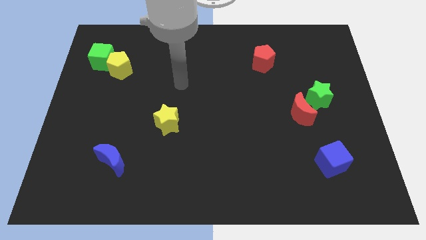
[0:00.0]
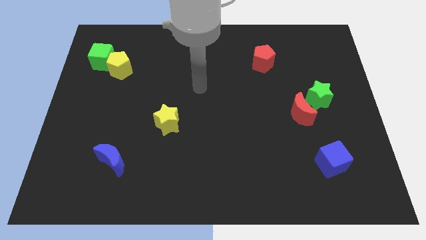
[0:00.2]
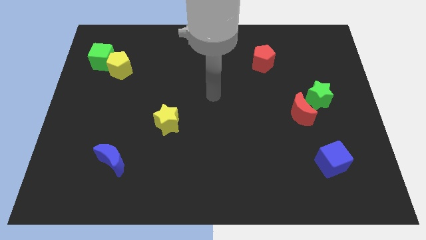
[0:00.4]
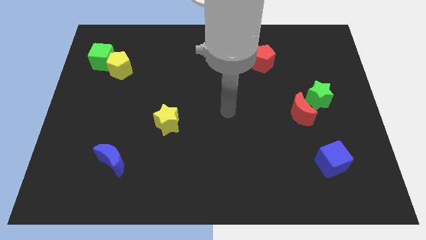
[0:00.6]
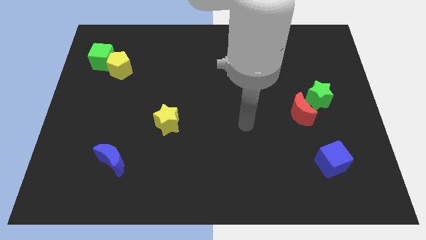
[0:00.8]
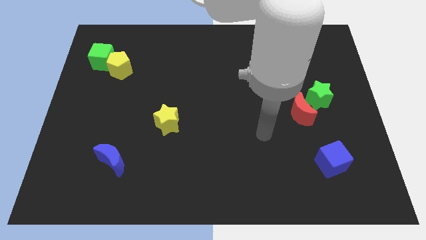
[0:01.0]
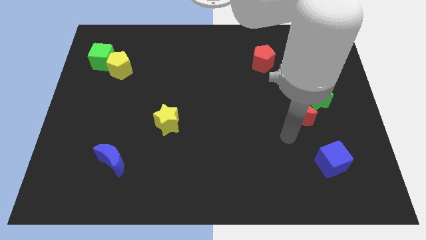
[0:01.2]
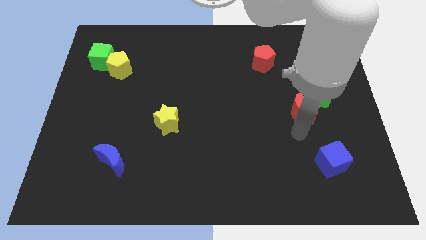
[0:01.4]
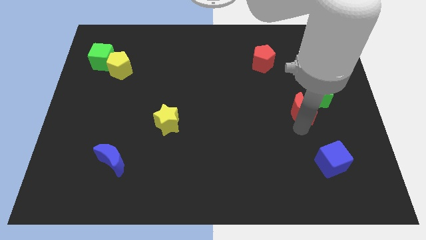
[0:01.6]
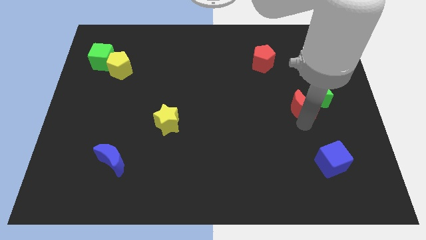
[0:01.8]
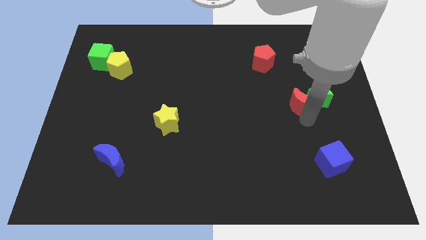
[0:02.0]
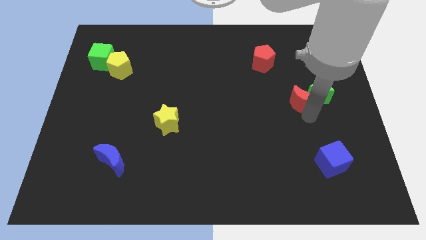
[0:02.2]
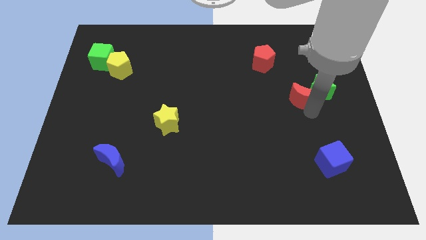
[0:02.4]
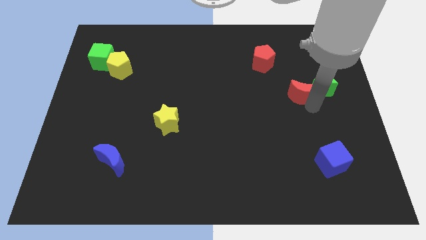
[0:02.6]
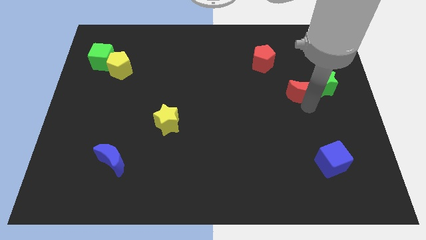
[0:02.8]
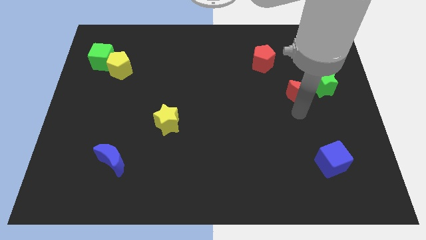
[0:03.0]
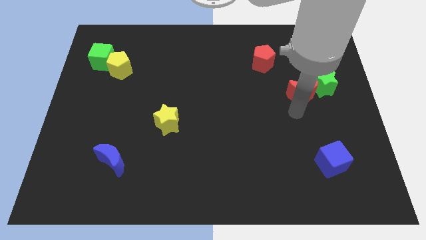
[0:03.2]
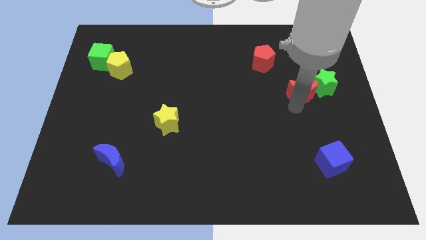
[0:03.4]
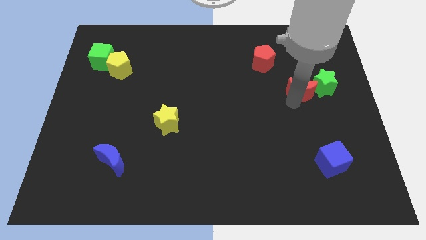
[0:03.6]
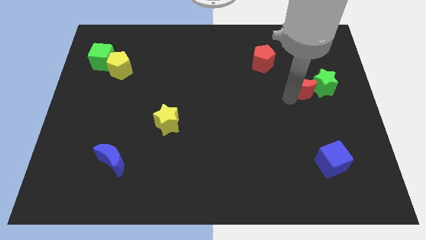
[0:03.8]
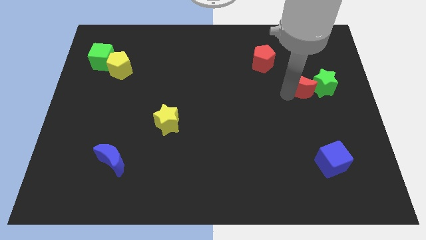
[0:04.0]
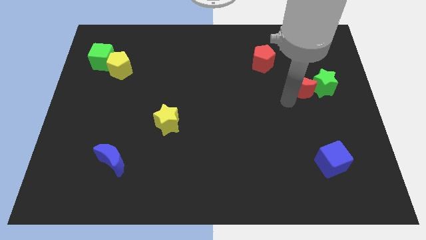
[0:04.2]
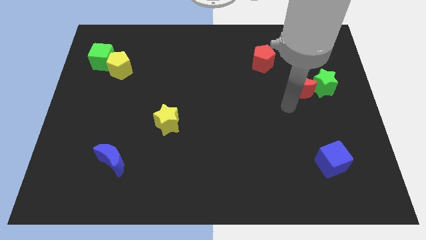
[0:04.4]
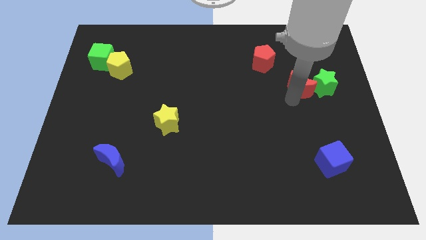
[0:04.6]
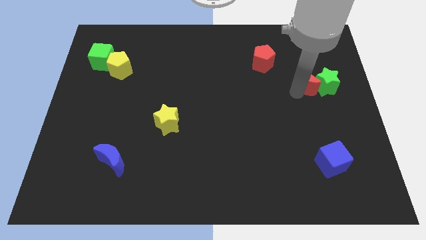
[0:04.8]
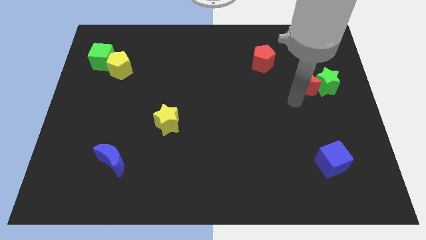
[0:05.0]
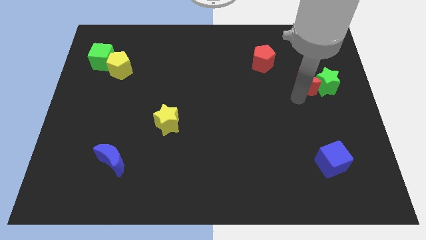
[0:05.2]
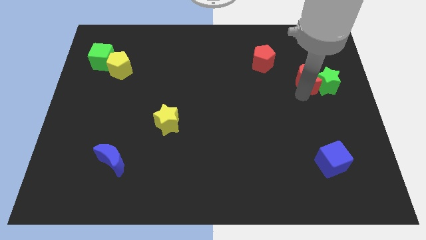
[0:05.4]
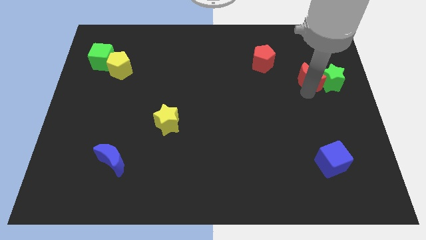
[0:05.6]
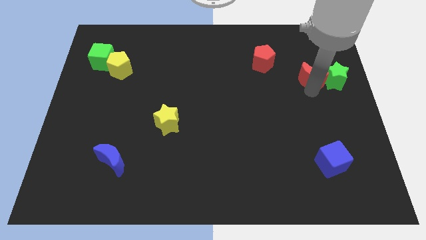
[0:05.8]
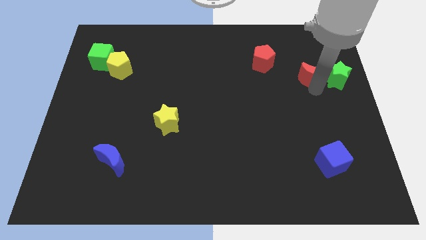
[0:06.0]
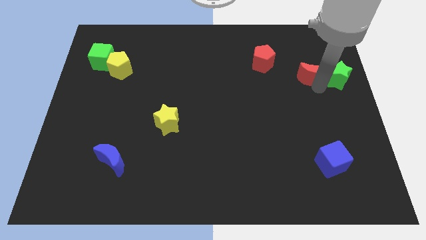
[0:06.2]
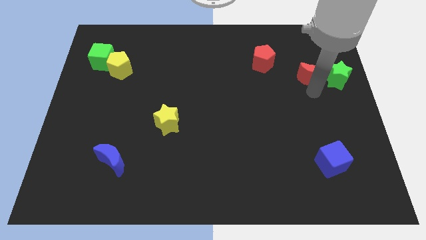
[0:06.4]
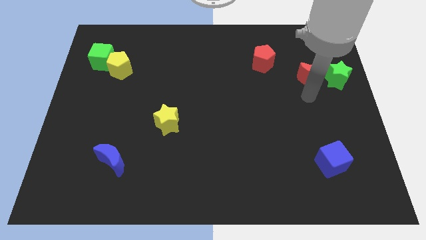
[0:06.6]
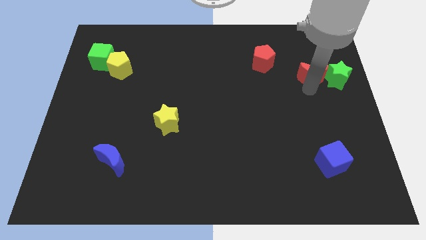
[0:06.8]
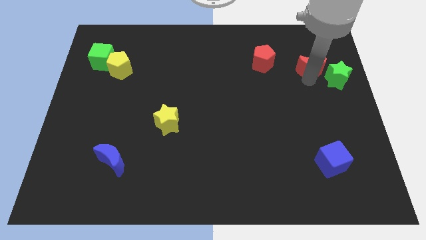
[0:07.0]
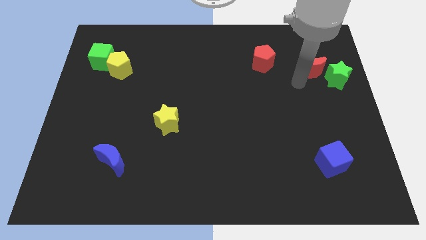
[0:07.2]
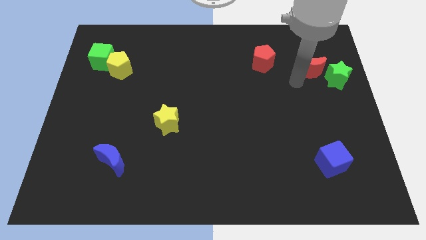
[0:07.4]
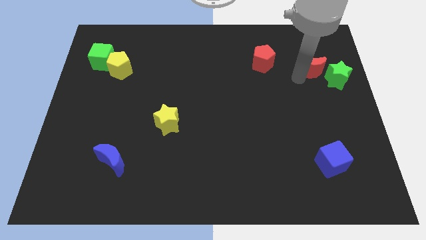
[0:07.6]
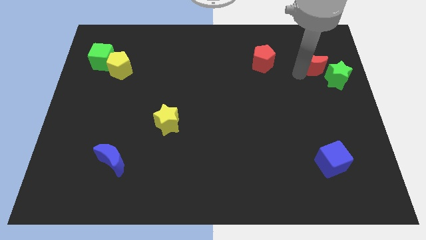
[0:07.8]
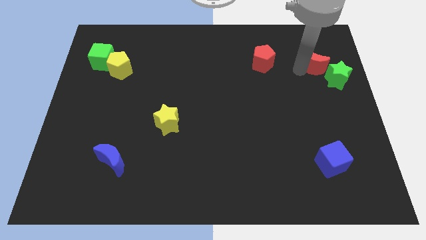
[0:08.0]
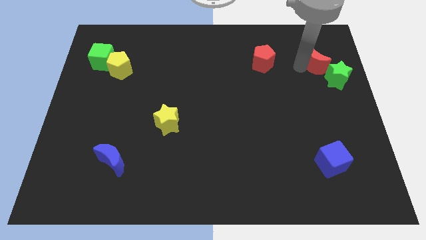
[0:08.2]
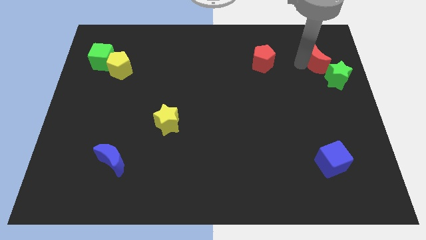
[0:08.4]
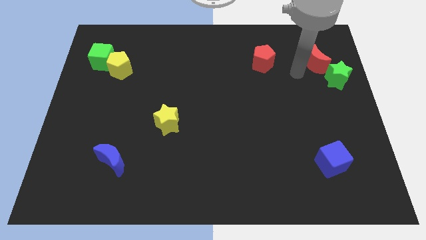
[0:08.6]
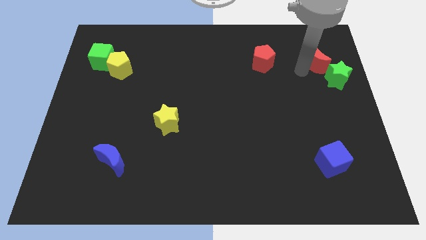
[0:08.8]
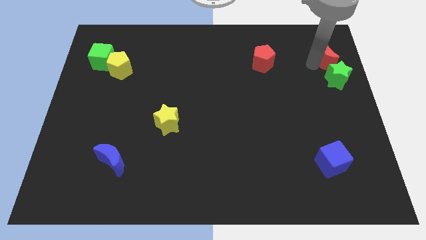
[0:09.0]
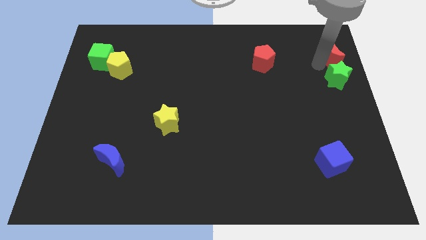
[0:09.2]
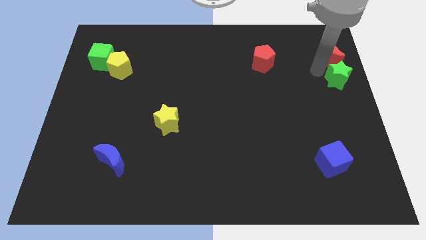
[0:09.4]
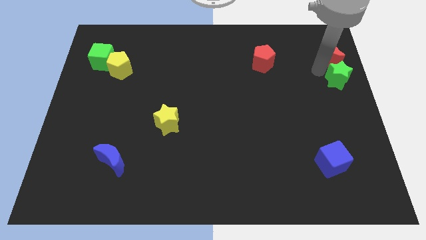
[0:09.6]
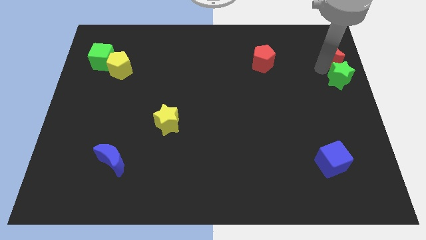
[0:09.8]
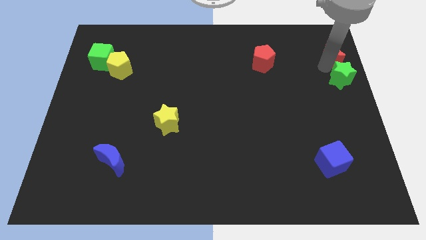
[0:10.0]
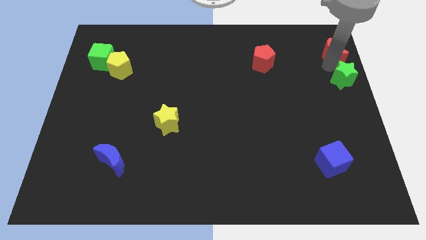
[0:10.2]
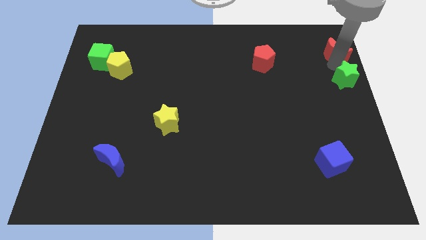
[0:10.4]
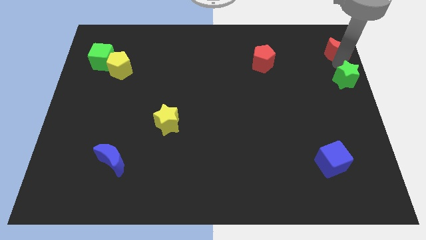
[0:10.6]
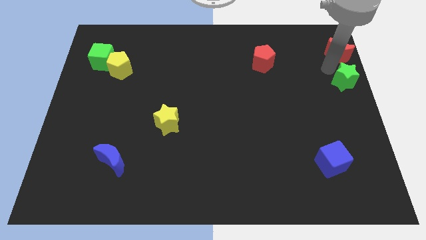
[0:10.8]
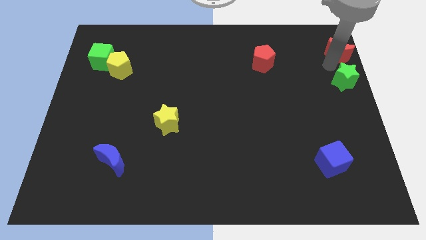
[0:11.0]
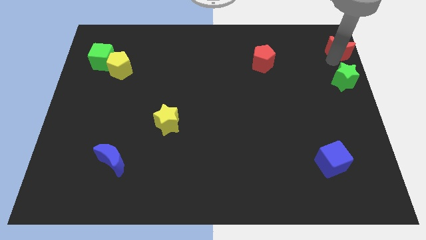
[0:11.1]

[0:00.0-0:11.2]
put the red moon to the top right
